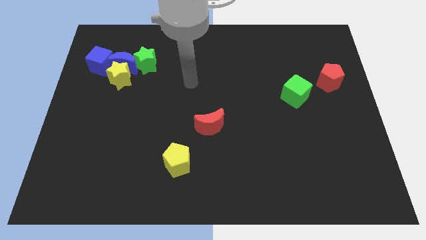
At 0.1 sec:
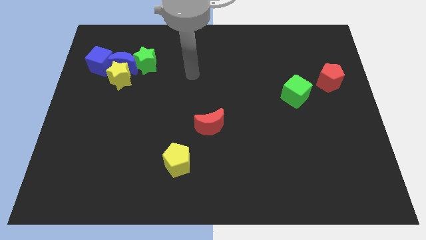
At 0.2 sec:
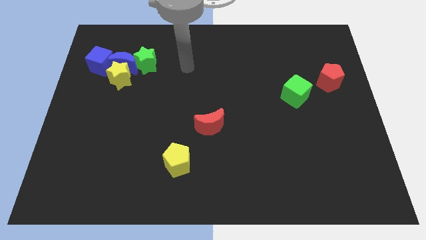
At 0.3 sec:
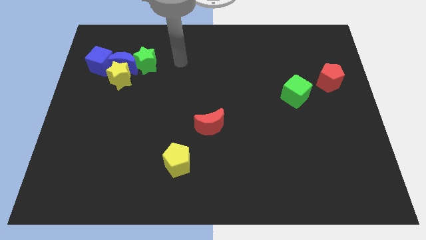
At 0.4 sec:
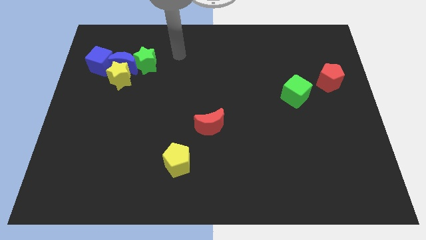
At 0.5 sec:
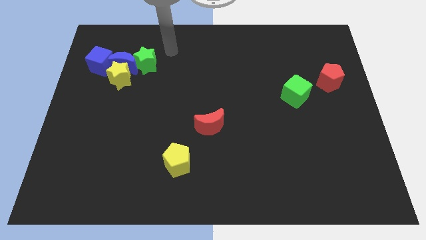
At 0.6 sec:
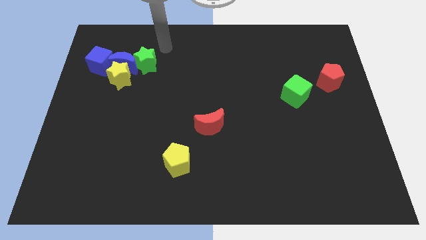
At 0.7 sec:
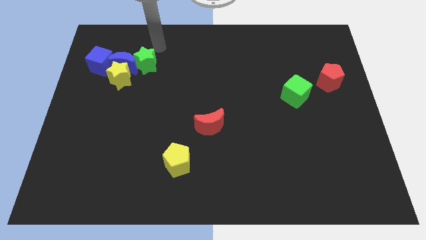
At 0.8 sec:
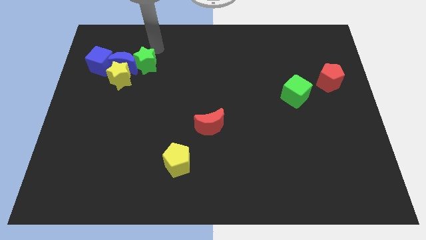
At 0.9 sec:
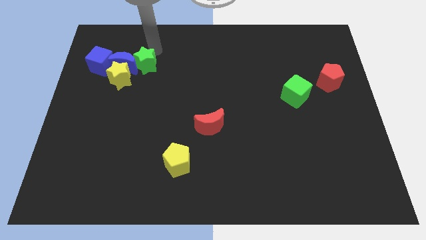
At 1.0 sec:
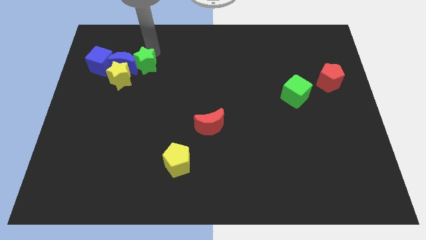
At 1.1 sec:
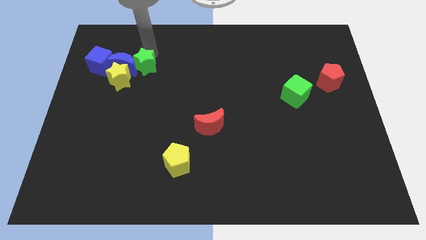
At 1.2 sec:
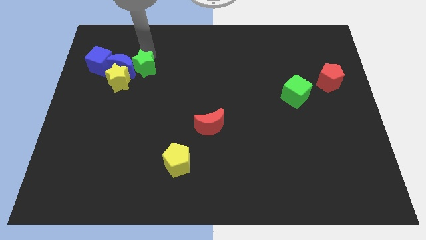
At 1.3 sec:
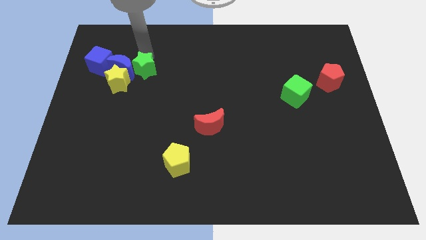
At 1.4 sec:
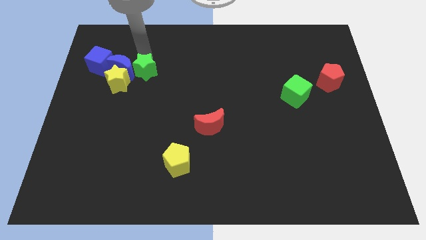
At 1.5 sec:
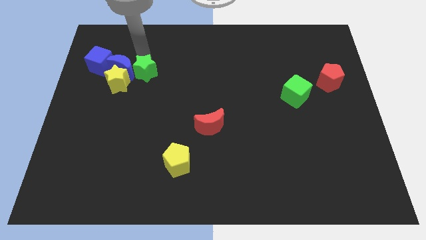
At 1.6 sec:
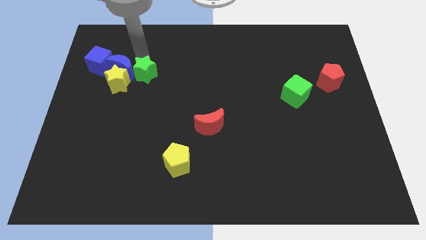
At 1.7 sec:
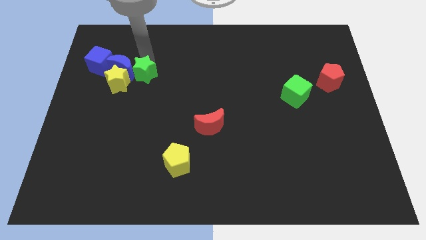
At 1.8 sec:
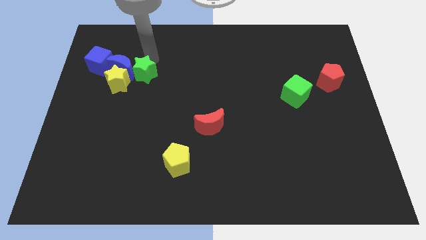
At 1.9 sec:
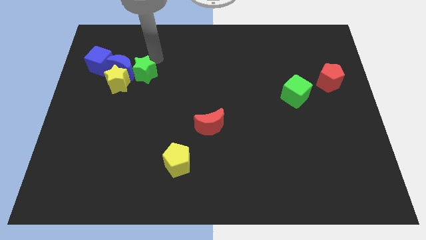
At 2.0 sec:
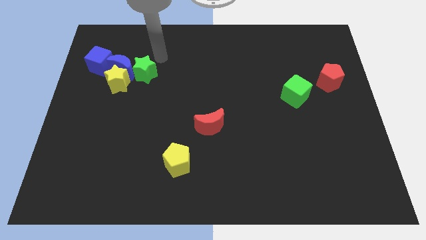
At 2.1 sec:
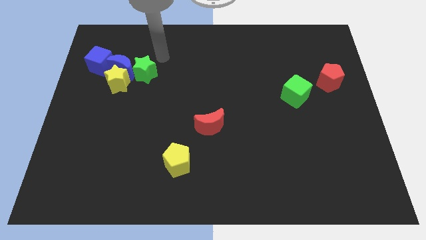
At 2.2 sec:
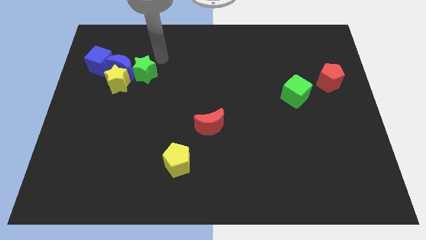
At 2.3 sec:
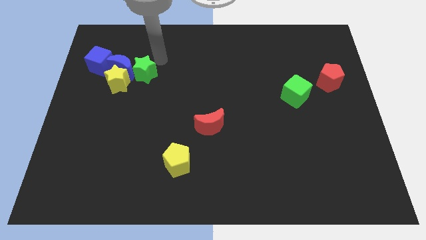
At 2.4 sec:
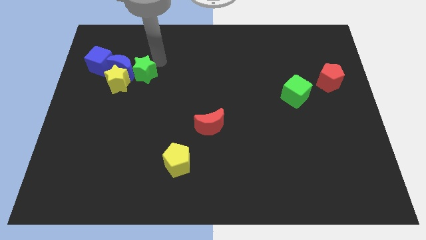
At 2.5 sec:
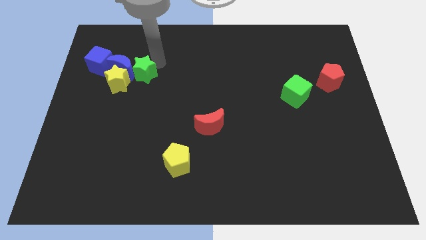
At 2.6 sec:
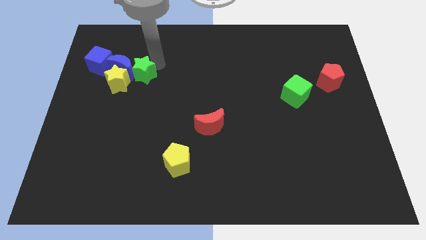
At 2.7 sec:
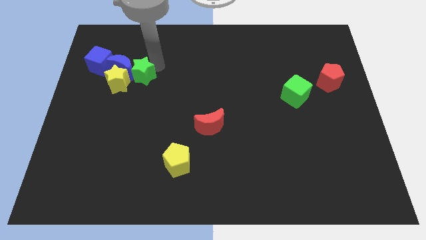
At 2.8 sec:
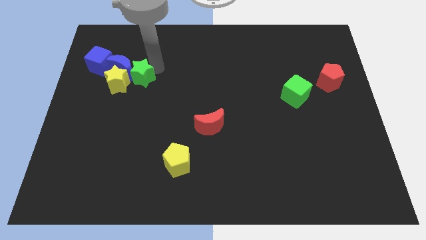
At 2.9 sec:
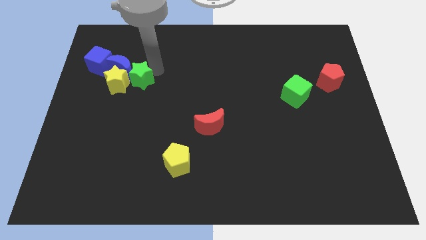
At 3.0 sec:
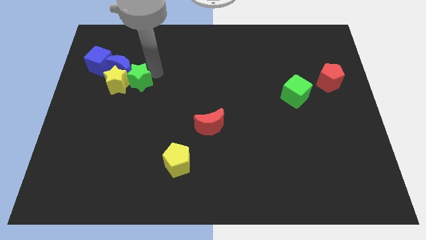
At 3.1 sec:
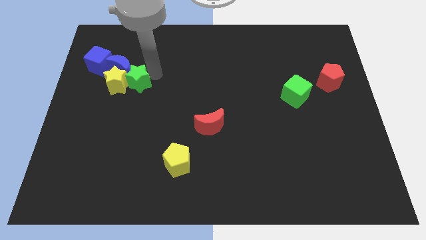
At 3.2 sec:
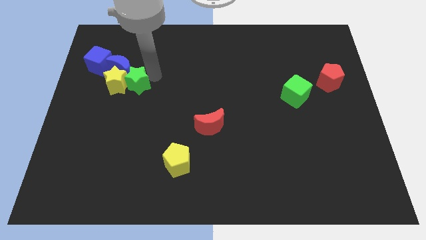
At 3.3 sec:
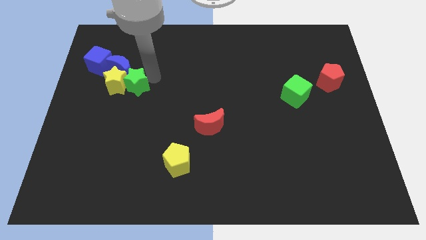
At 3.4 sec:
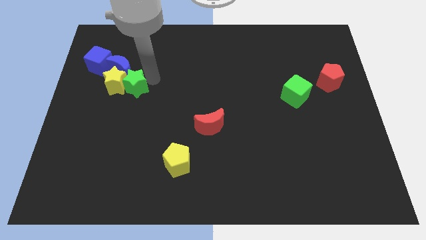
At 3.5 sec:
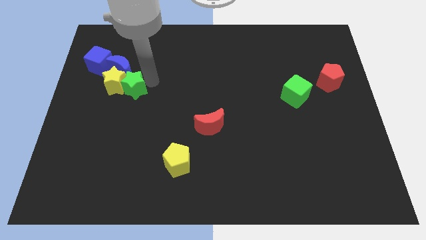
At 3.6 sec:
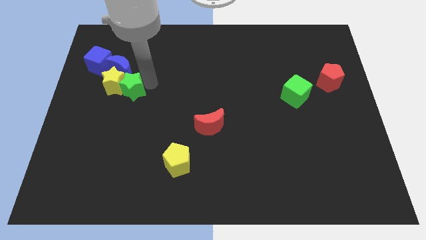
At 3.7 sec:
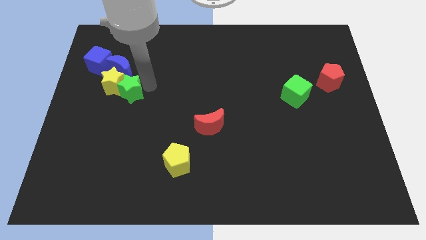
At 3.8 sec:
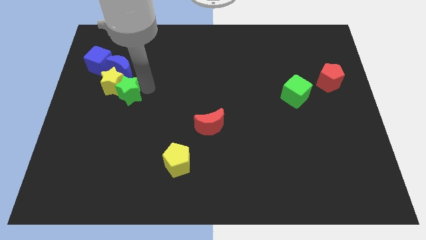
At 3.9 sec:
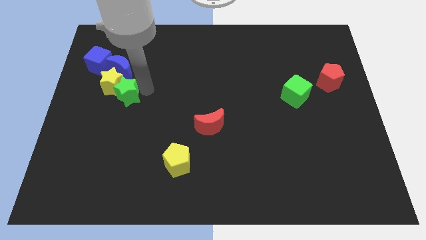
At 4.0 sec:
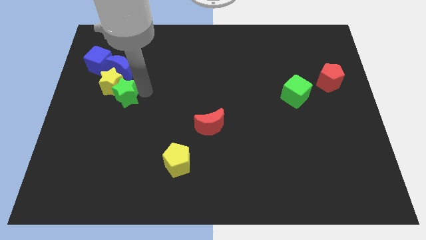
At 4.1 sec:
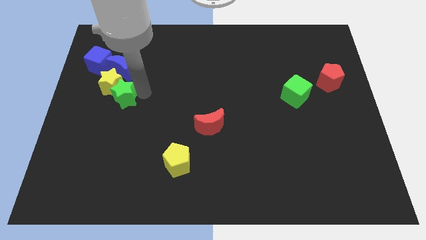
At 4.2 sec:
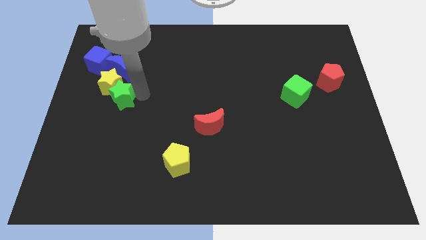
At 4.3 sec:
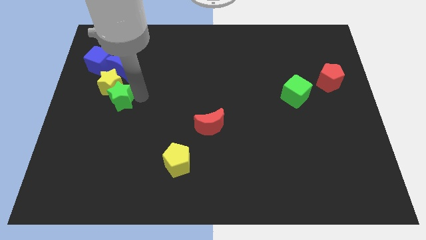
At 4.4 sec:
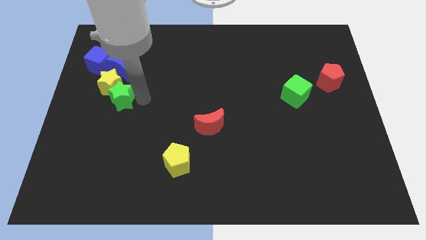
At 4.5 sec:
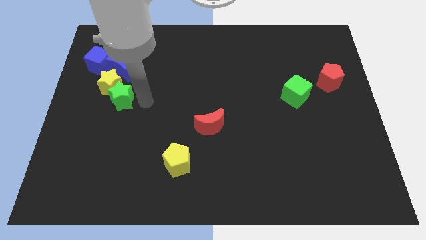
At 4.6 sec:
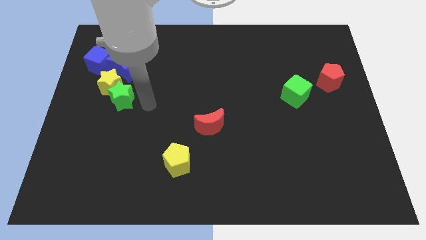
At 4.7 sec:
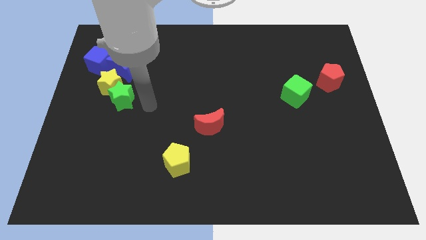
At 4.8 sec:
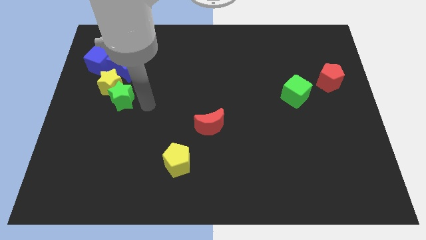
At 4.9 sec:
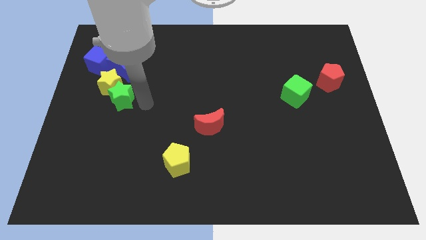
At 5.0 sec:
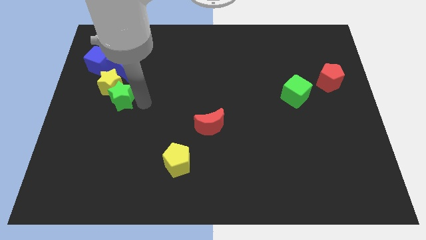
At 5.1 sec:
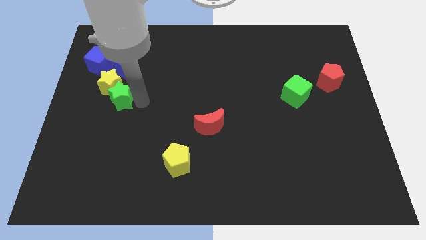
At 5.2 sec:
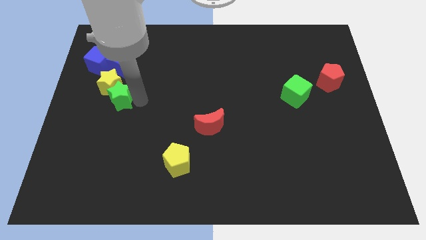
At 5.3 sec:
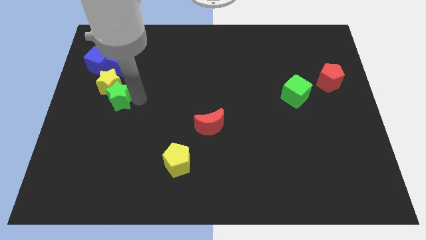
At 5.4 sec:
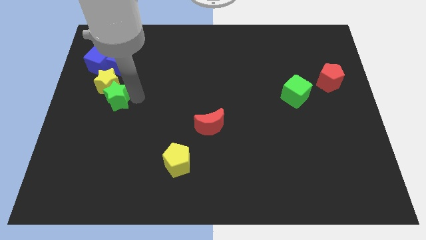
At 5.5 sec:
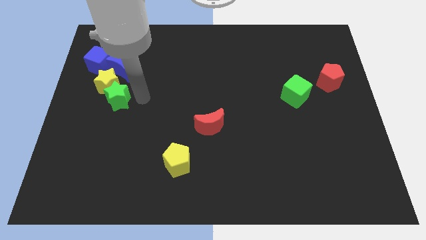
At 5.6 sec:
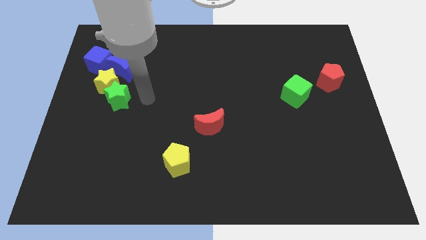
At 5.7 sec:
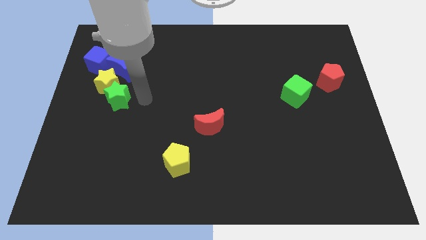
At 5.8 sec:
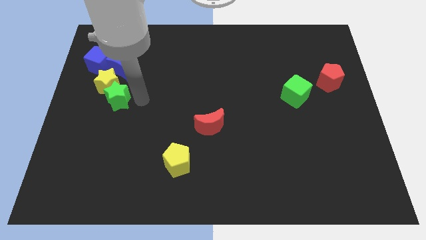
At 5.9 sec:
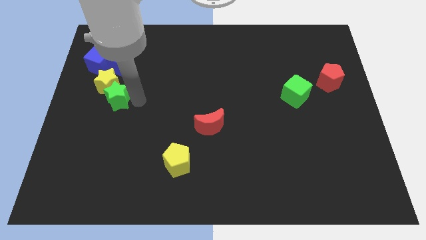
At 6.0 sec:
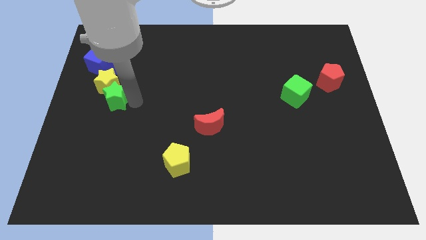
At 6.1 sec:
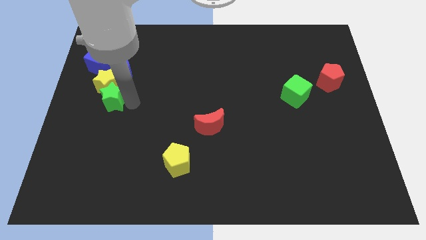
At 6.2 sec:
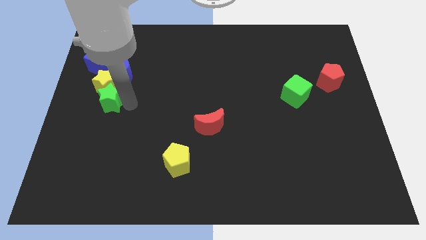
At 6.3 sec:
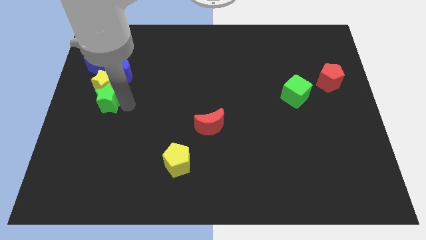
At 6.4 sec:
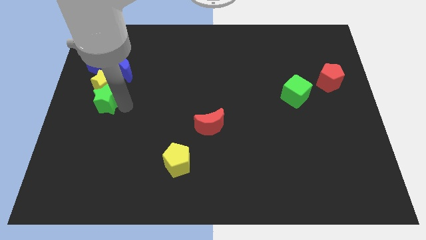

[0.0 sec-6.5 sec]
put the green star to the left side
